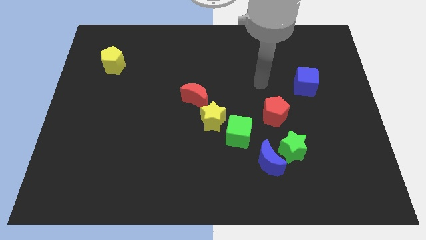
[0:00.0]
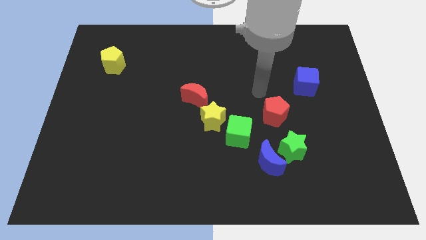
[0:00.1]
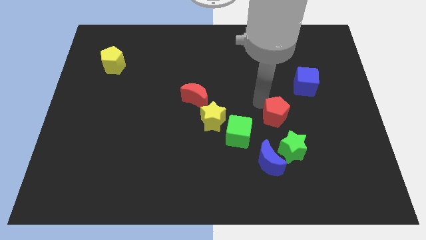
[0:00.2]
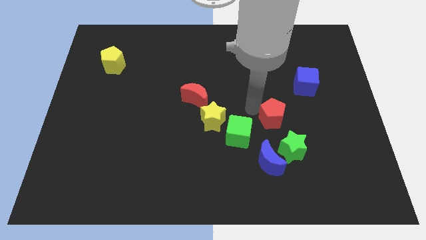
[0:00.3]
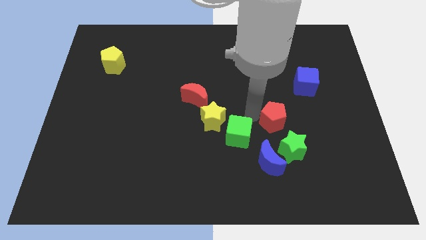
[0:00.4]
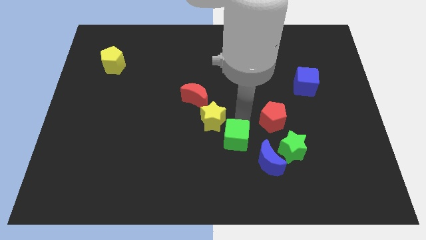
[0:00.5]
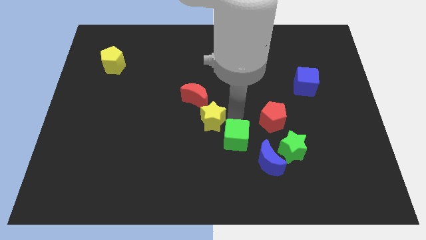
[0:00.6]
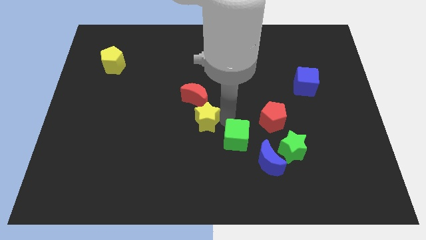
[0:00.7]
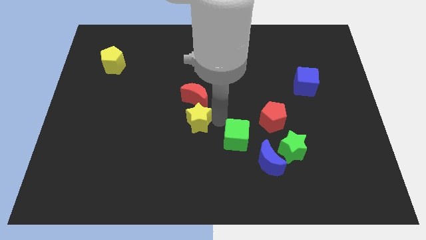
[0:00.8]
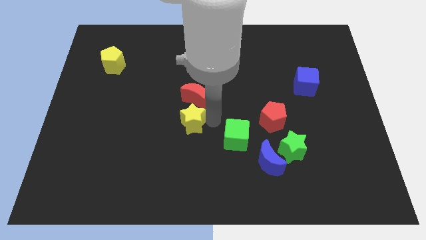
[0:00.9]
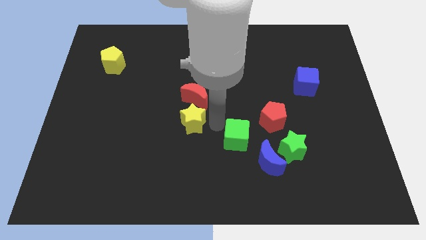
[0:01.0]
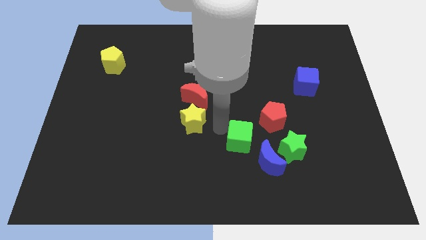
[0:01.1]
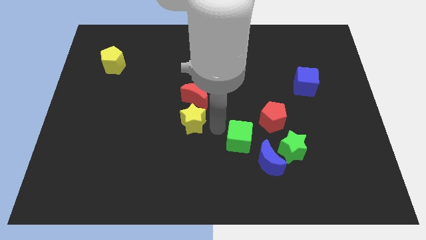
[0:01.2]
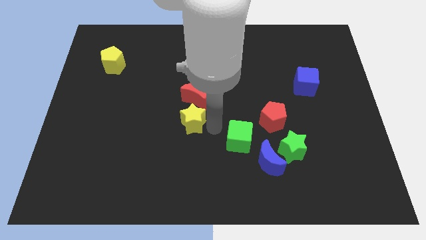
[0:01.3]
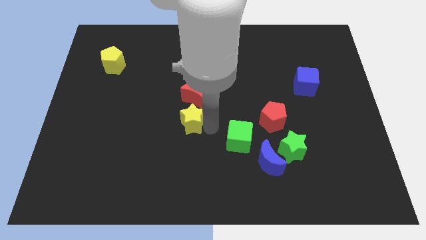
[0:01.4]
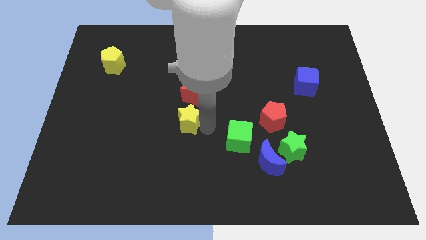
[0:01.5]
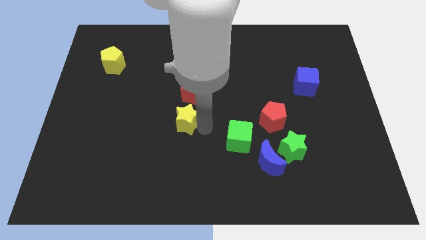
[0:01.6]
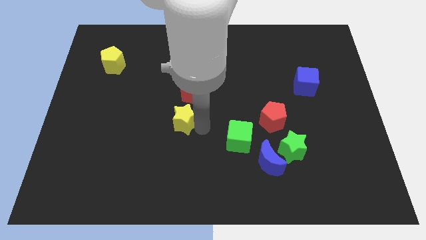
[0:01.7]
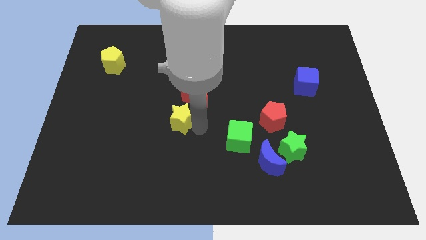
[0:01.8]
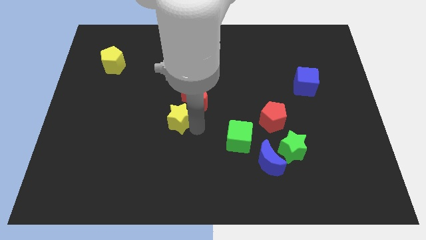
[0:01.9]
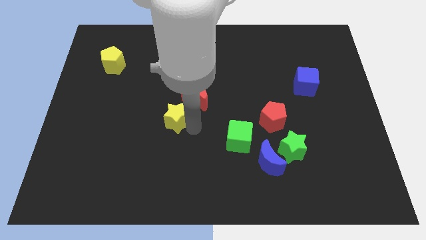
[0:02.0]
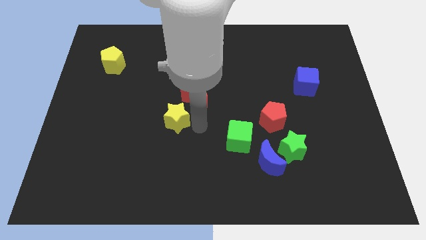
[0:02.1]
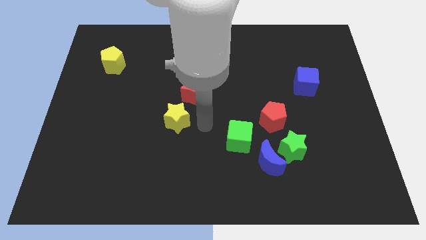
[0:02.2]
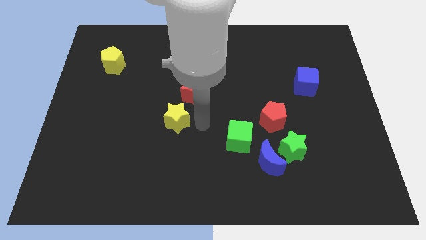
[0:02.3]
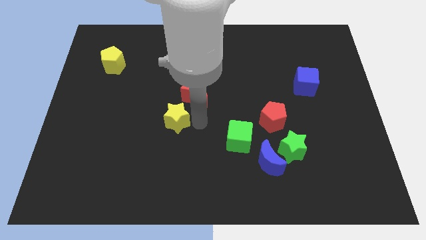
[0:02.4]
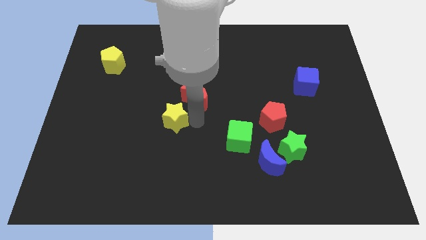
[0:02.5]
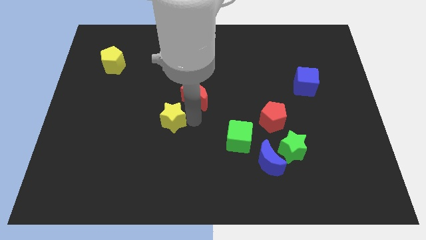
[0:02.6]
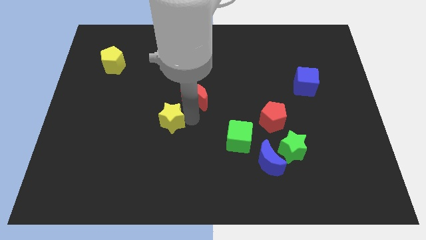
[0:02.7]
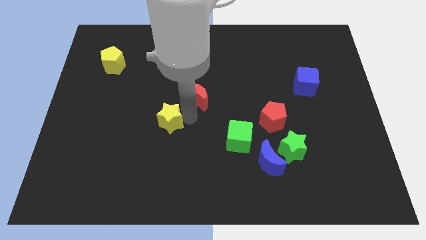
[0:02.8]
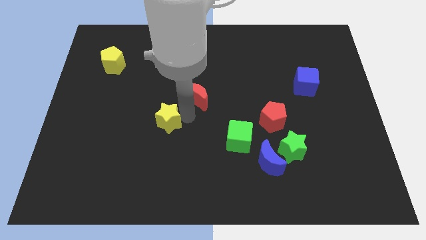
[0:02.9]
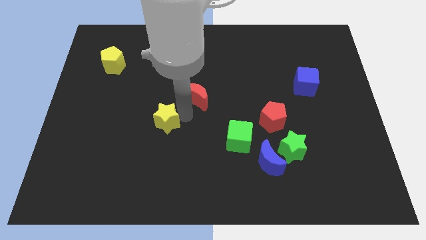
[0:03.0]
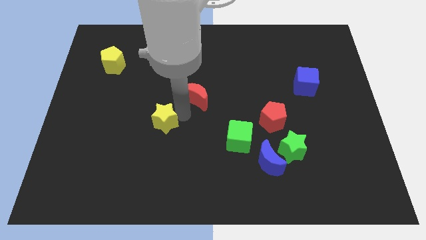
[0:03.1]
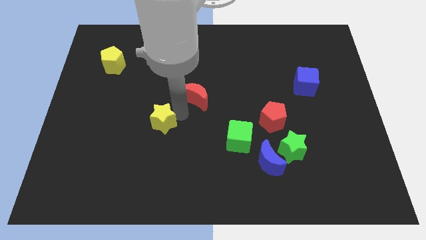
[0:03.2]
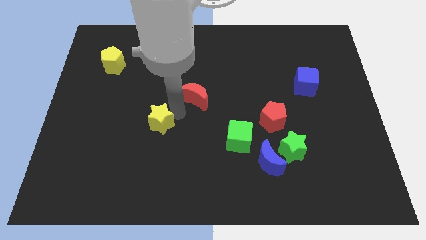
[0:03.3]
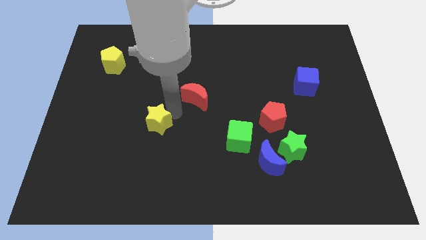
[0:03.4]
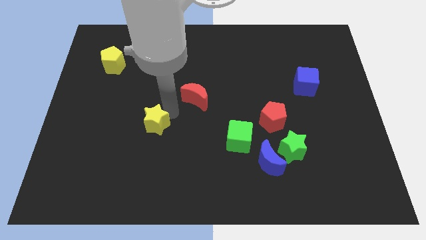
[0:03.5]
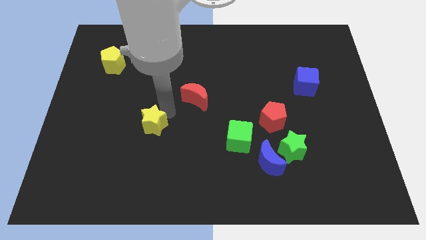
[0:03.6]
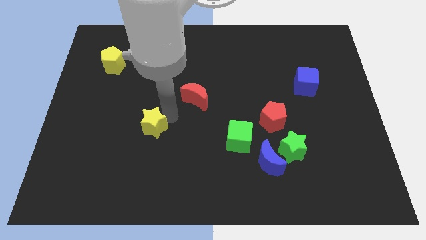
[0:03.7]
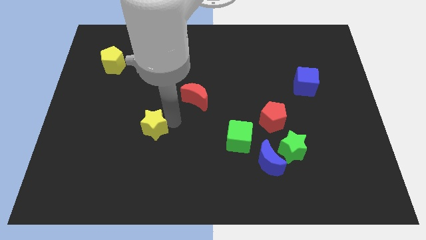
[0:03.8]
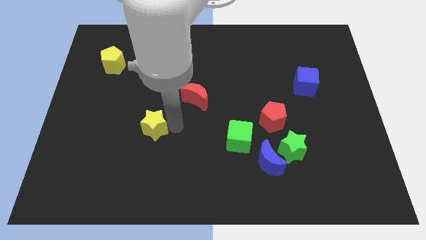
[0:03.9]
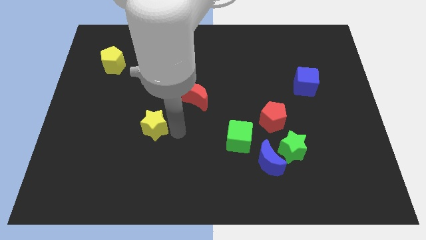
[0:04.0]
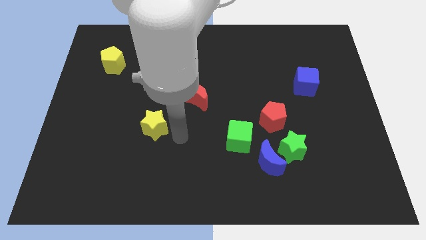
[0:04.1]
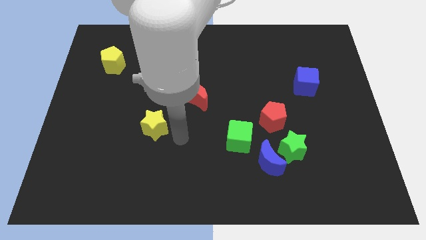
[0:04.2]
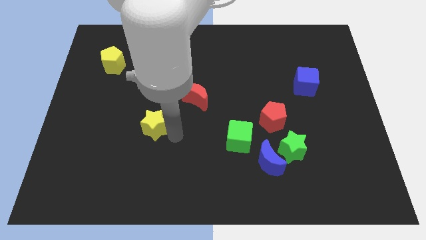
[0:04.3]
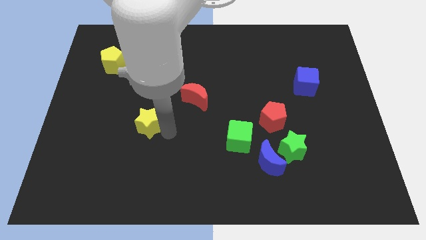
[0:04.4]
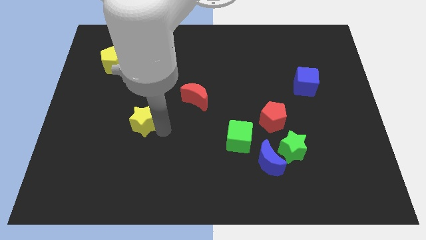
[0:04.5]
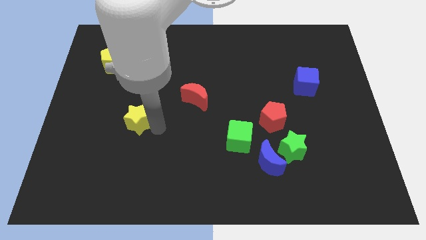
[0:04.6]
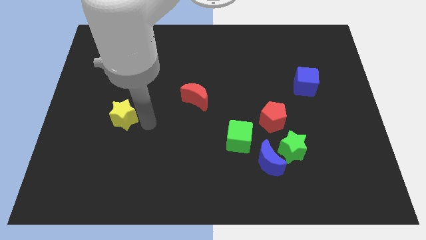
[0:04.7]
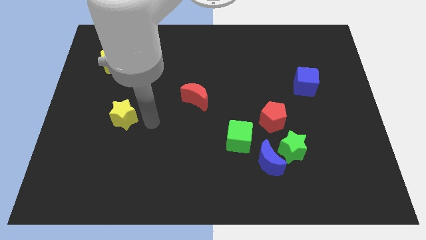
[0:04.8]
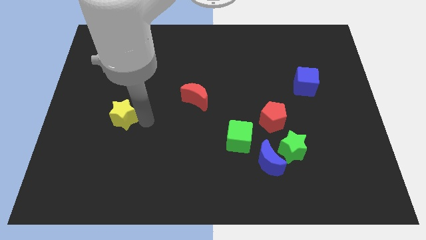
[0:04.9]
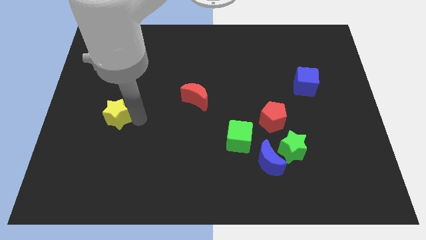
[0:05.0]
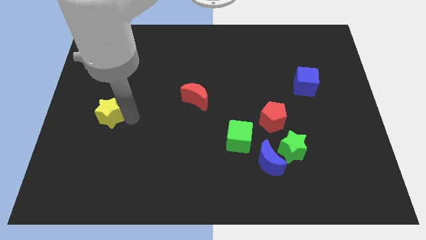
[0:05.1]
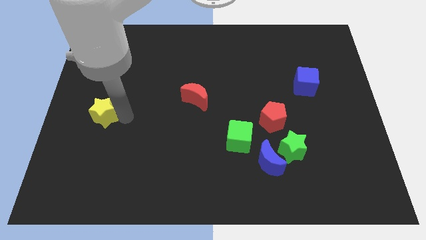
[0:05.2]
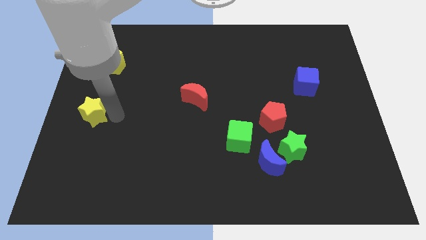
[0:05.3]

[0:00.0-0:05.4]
push the yellow star to the center left

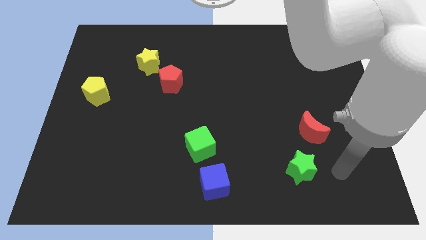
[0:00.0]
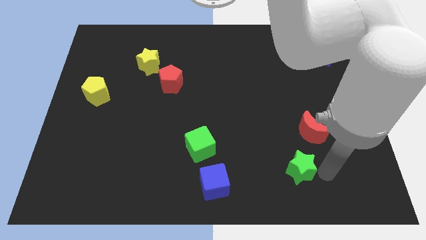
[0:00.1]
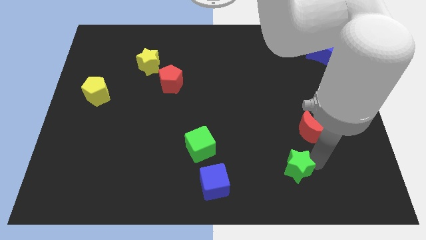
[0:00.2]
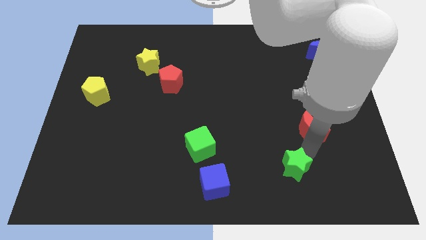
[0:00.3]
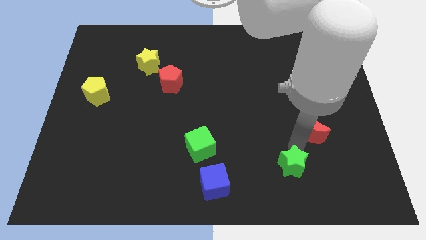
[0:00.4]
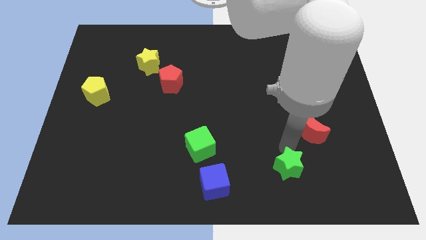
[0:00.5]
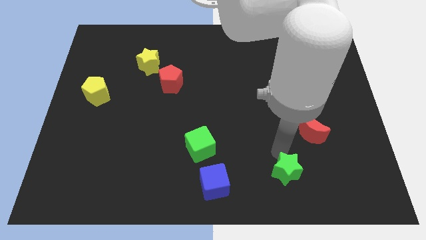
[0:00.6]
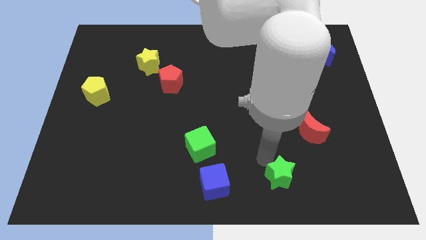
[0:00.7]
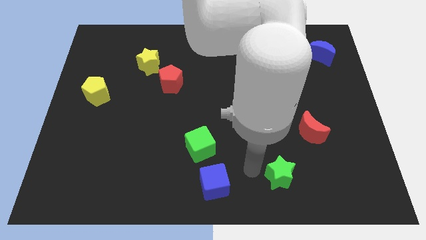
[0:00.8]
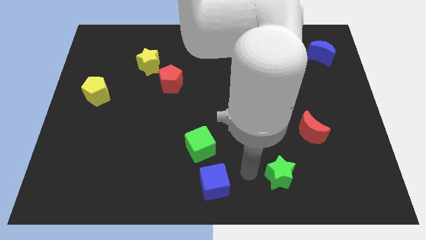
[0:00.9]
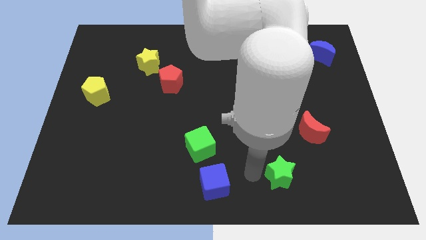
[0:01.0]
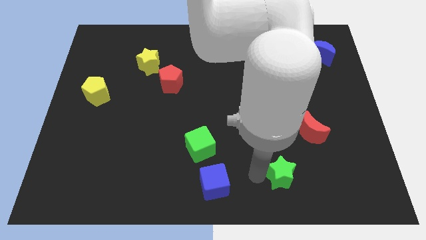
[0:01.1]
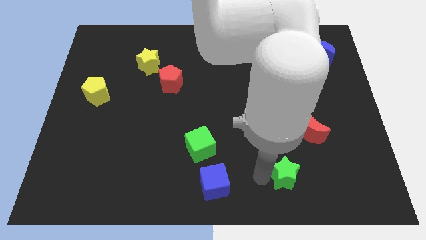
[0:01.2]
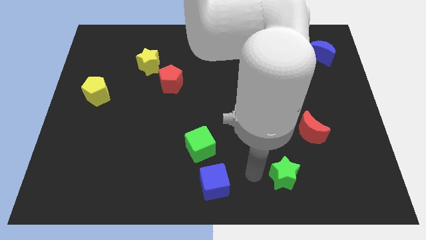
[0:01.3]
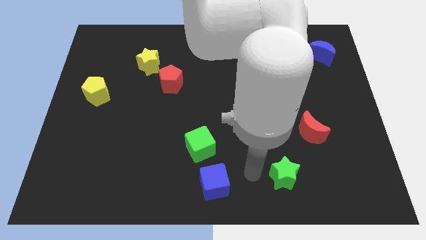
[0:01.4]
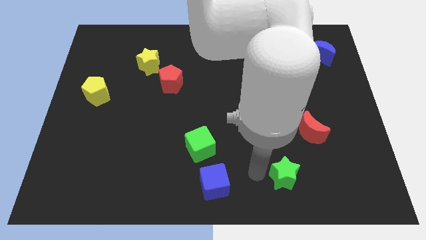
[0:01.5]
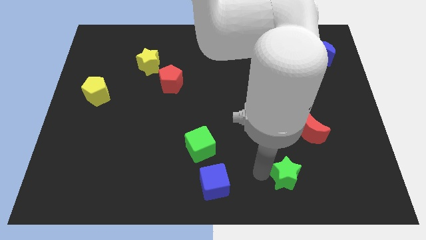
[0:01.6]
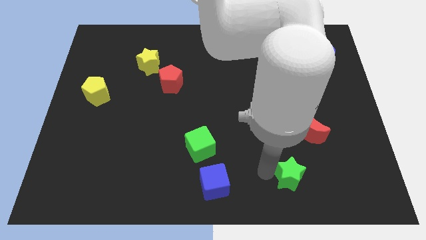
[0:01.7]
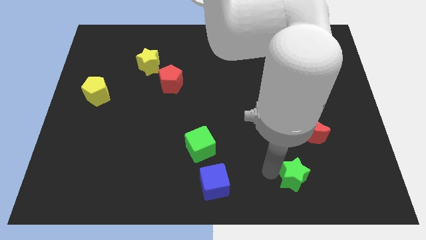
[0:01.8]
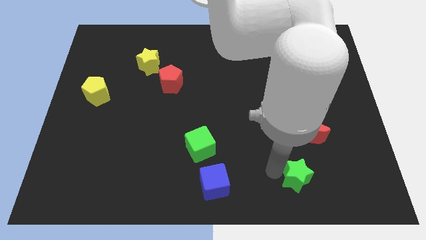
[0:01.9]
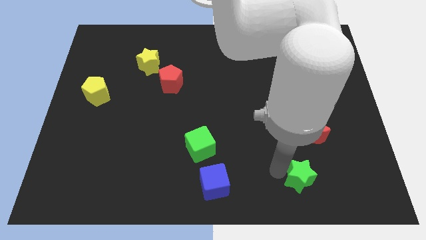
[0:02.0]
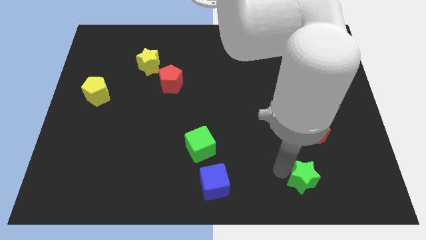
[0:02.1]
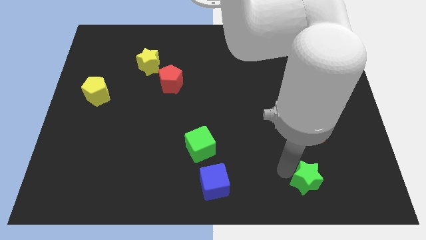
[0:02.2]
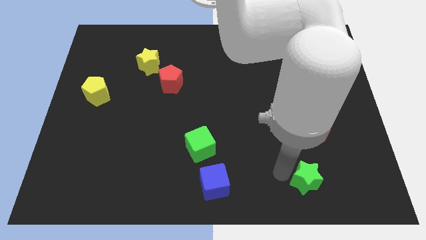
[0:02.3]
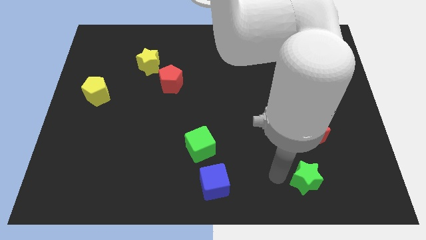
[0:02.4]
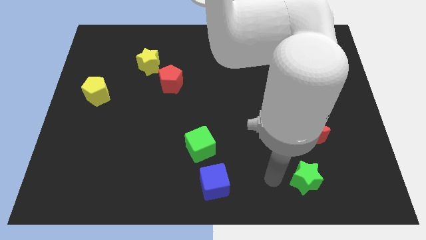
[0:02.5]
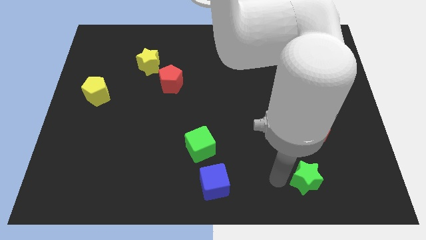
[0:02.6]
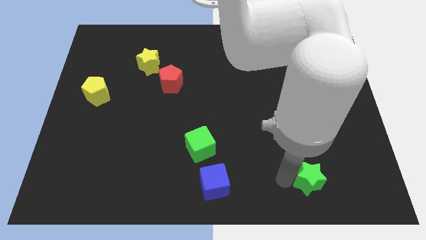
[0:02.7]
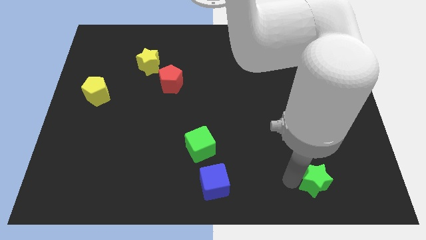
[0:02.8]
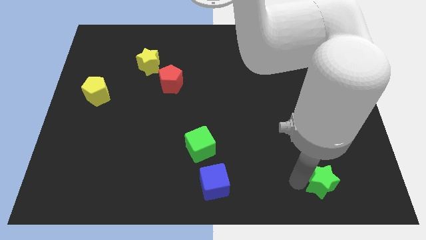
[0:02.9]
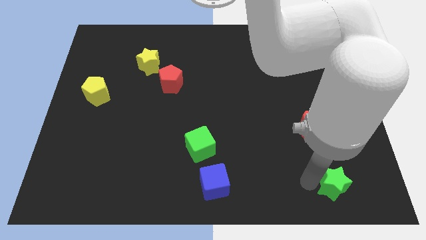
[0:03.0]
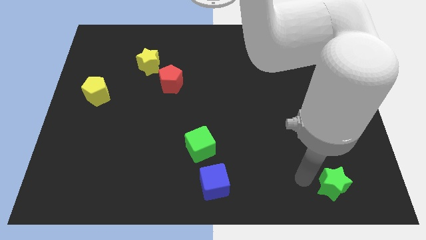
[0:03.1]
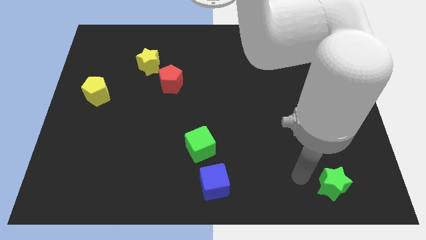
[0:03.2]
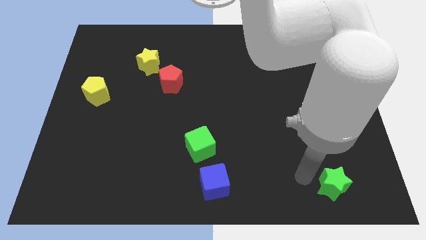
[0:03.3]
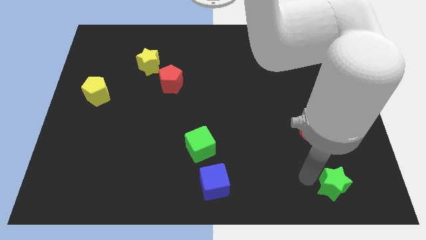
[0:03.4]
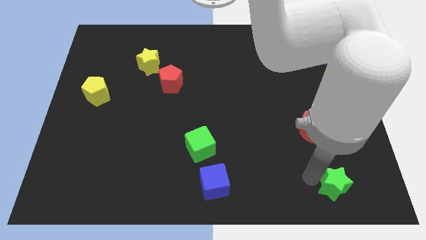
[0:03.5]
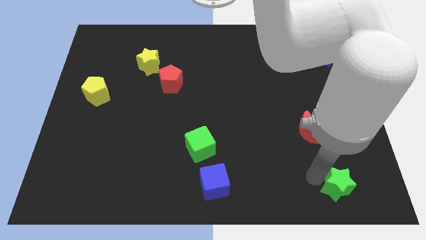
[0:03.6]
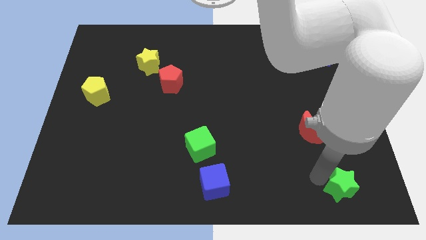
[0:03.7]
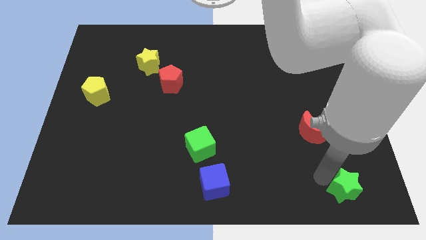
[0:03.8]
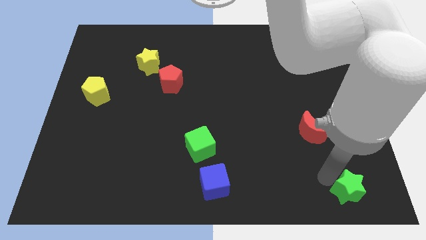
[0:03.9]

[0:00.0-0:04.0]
slide the green star to the bottom right corner
